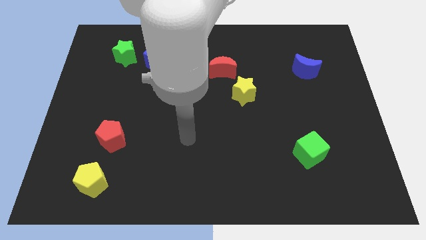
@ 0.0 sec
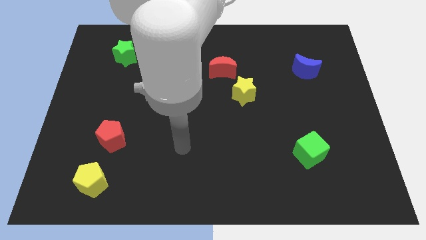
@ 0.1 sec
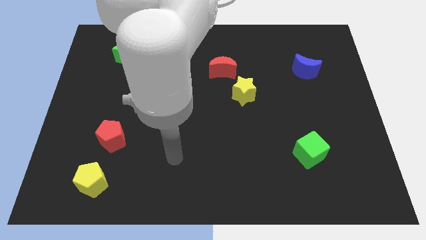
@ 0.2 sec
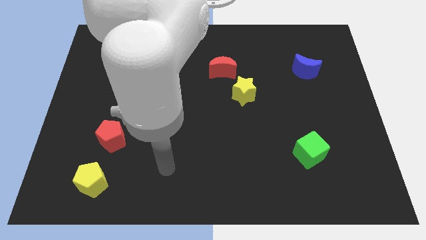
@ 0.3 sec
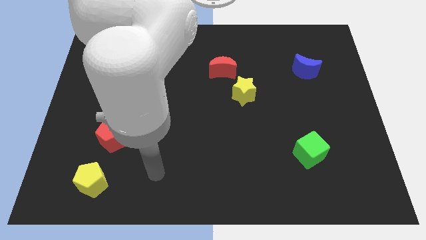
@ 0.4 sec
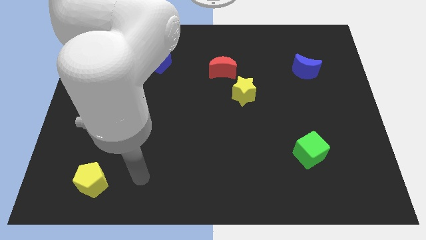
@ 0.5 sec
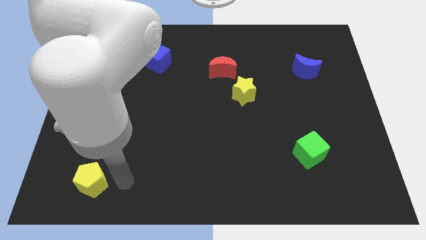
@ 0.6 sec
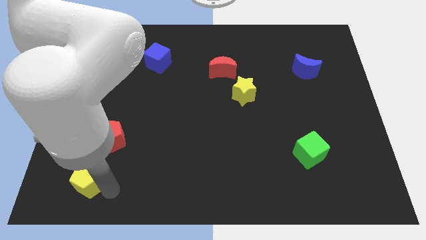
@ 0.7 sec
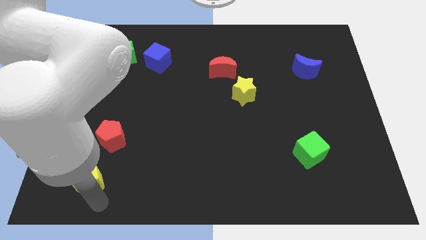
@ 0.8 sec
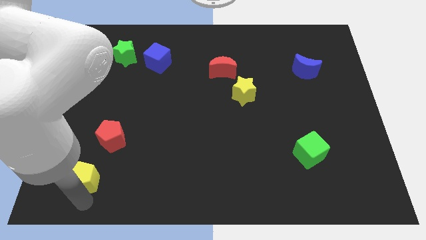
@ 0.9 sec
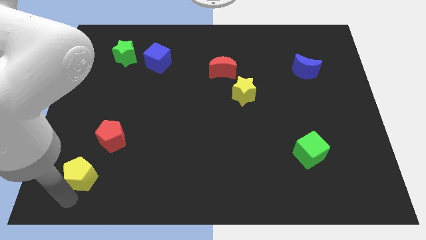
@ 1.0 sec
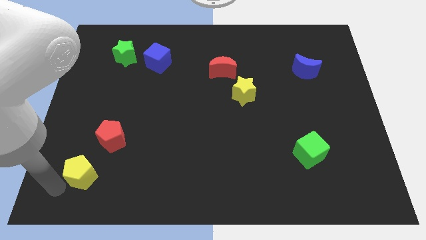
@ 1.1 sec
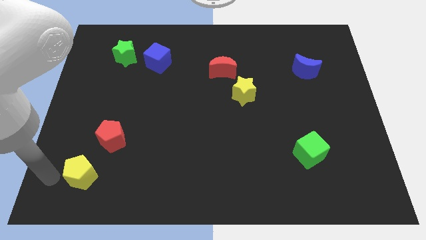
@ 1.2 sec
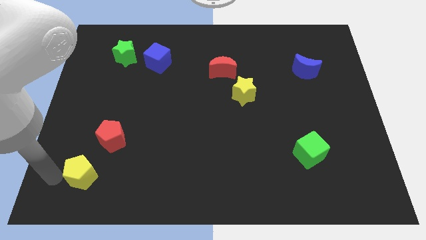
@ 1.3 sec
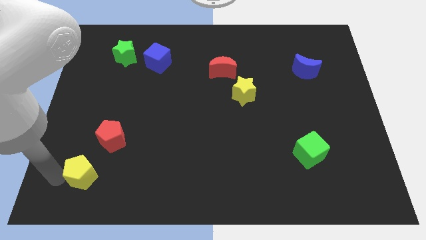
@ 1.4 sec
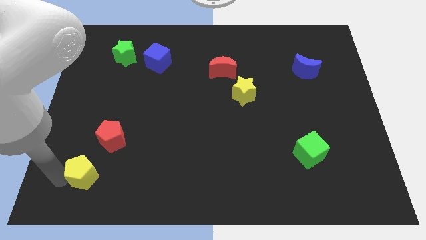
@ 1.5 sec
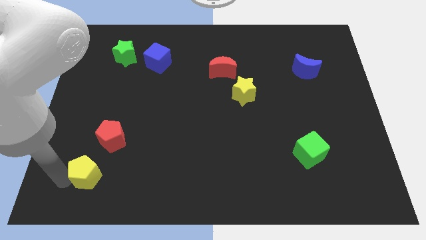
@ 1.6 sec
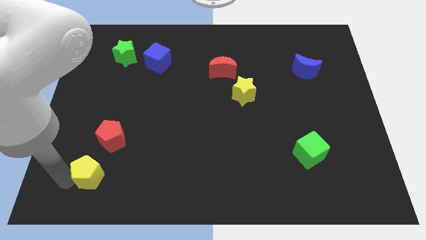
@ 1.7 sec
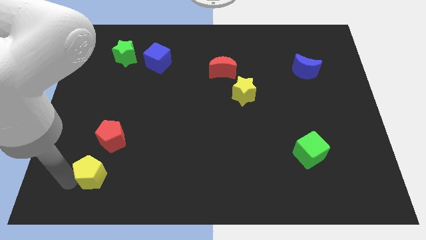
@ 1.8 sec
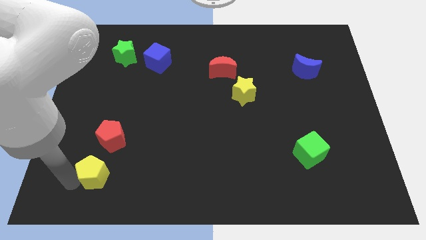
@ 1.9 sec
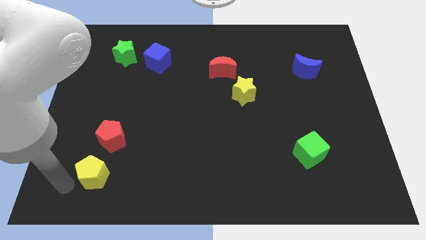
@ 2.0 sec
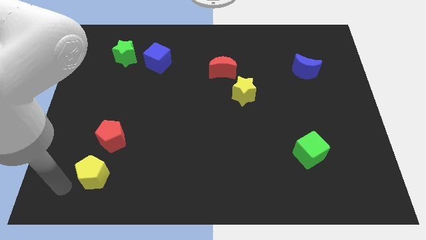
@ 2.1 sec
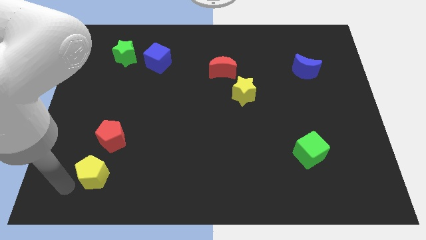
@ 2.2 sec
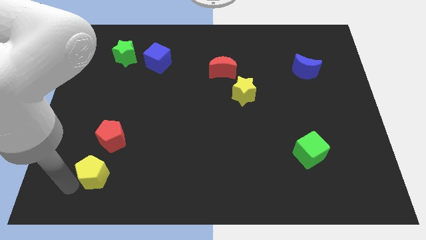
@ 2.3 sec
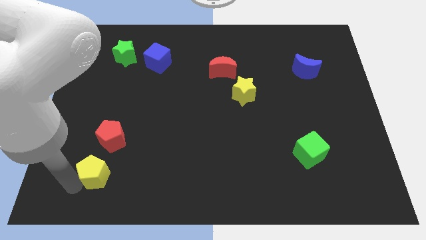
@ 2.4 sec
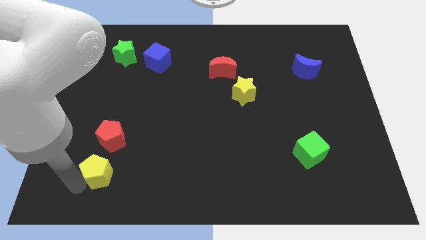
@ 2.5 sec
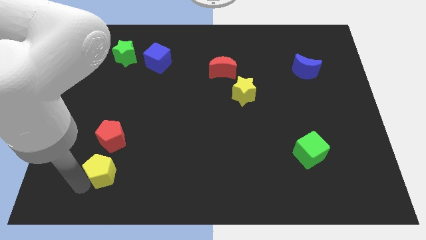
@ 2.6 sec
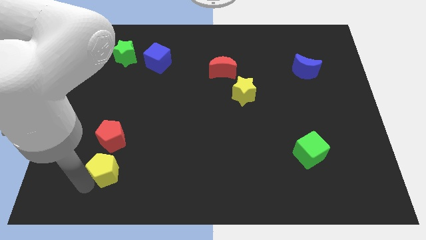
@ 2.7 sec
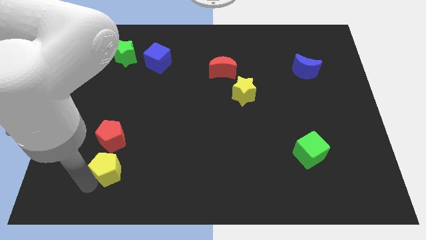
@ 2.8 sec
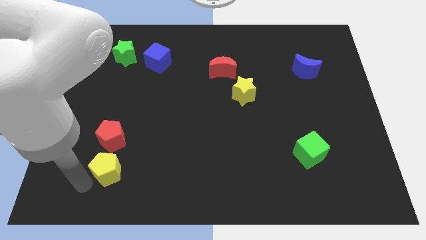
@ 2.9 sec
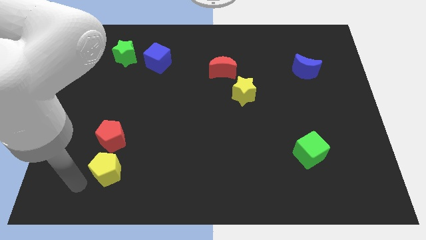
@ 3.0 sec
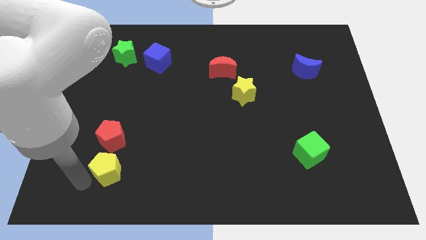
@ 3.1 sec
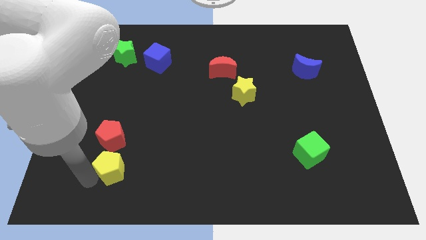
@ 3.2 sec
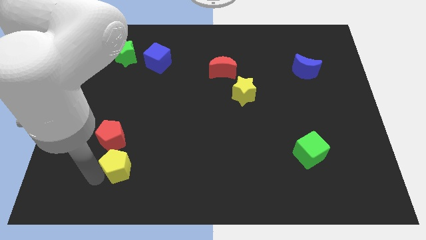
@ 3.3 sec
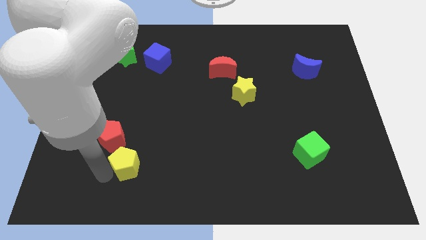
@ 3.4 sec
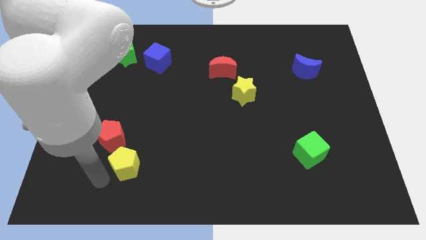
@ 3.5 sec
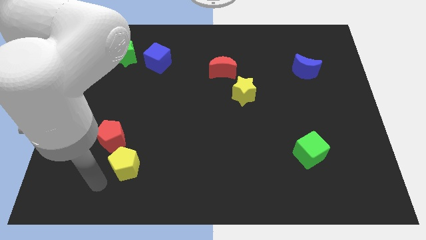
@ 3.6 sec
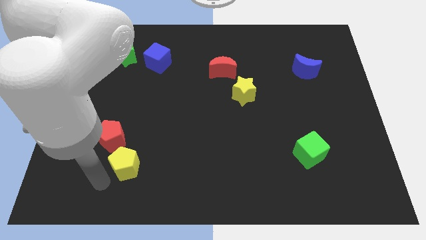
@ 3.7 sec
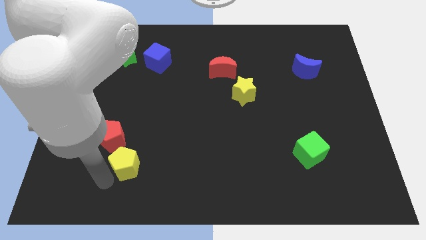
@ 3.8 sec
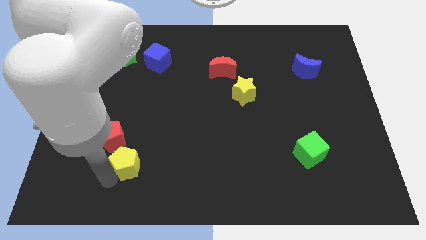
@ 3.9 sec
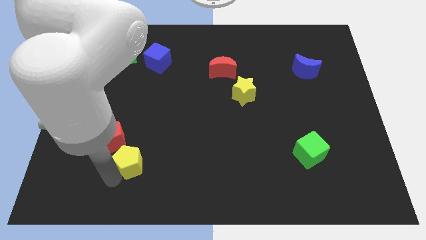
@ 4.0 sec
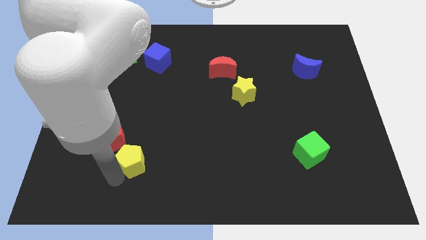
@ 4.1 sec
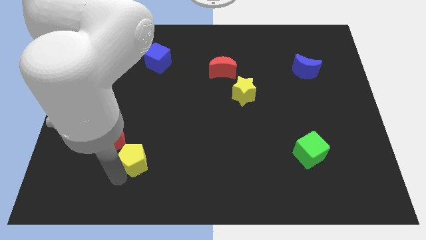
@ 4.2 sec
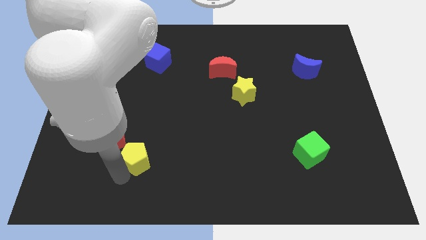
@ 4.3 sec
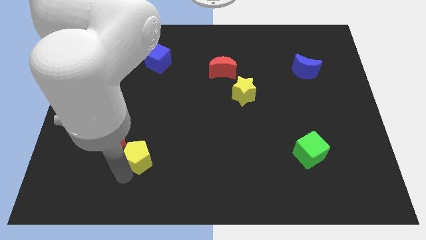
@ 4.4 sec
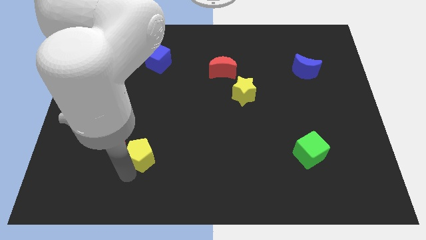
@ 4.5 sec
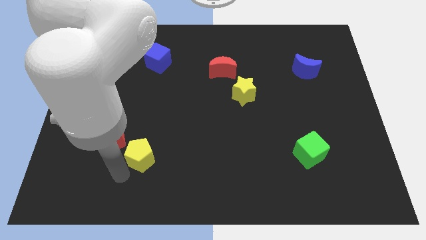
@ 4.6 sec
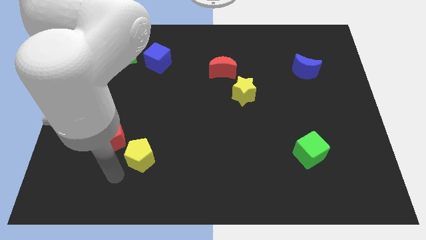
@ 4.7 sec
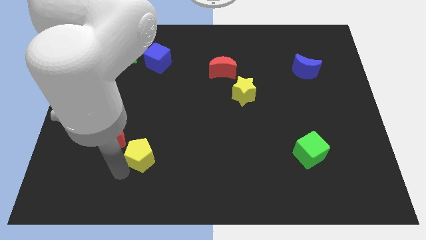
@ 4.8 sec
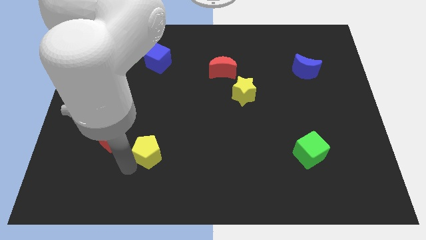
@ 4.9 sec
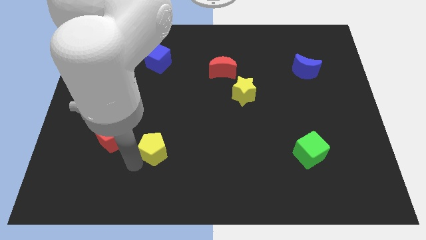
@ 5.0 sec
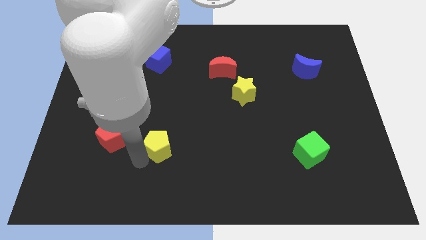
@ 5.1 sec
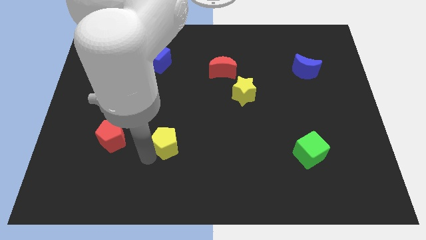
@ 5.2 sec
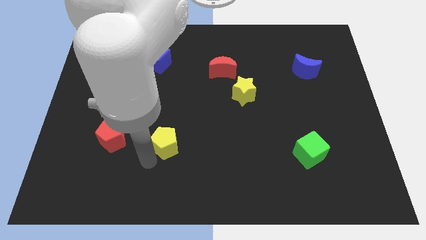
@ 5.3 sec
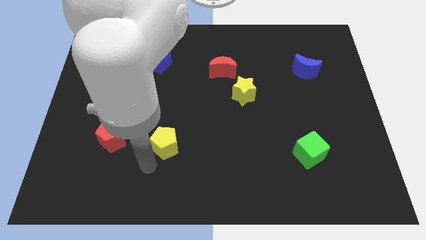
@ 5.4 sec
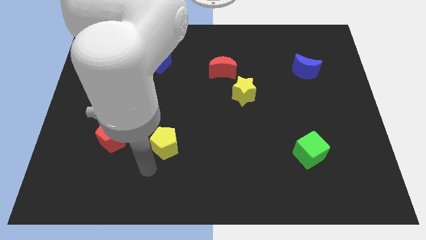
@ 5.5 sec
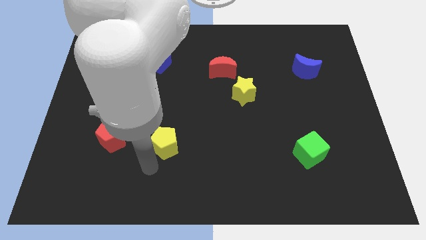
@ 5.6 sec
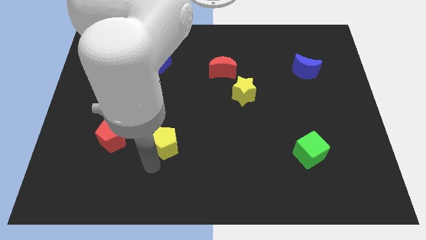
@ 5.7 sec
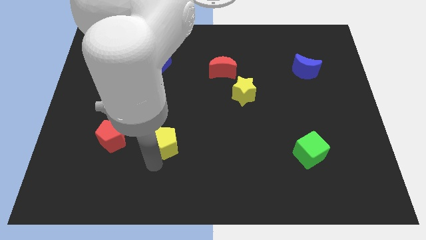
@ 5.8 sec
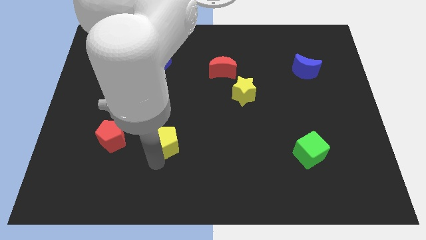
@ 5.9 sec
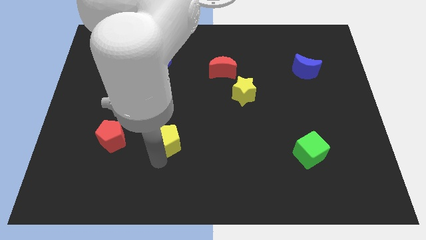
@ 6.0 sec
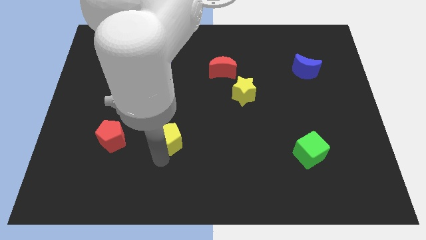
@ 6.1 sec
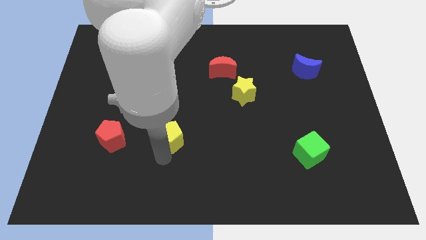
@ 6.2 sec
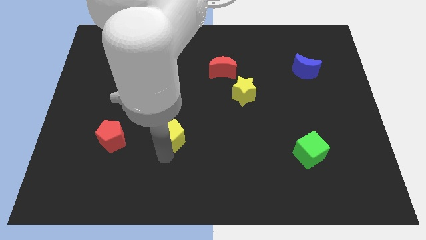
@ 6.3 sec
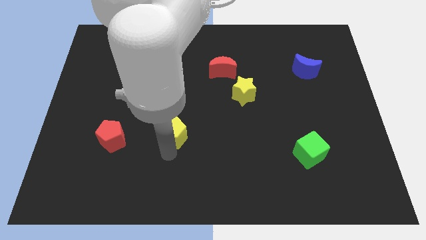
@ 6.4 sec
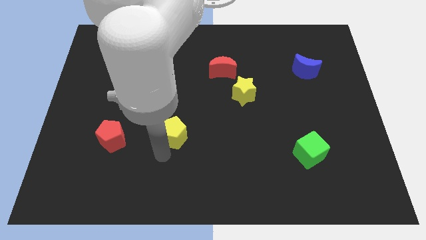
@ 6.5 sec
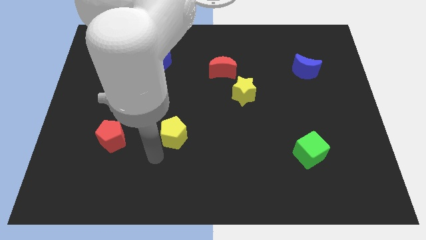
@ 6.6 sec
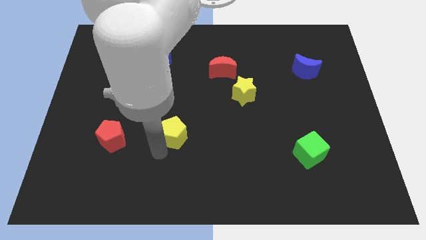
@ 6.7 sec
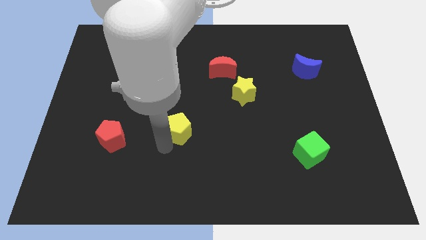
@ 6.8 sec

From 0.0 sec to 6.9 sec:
put the yellow pentagon to the middle of the board
